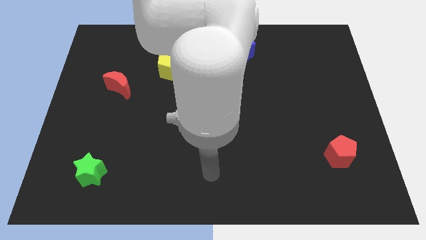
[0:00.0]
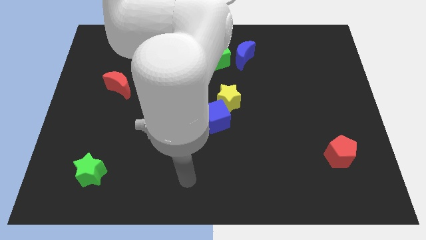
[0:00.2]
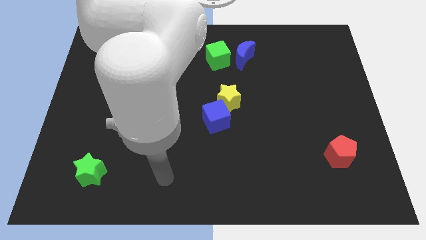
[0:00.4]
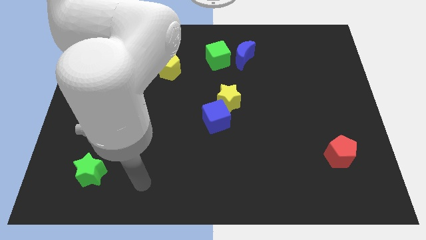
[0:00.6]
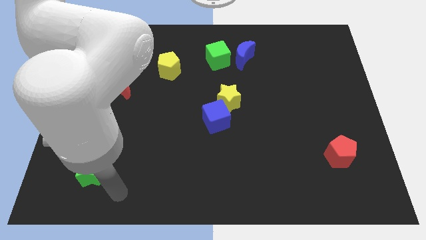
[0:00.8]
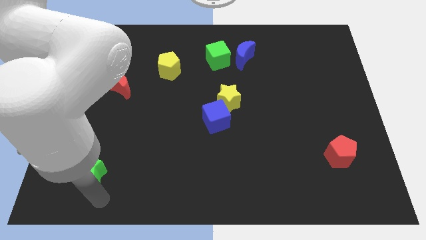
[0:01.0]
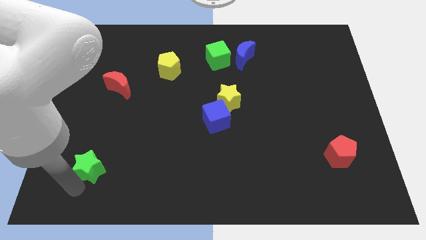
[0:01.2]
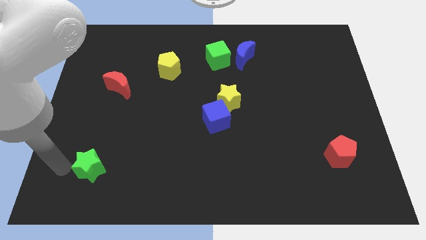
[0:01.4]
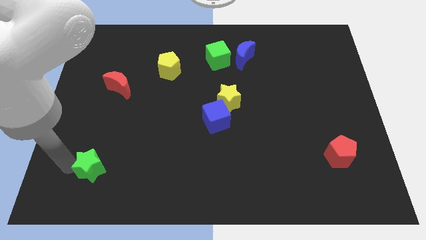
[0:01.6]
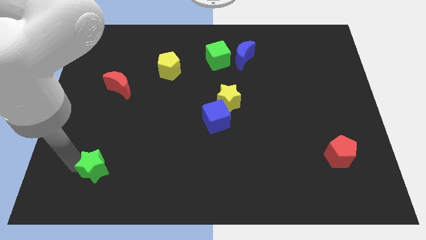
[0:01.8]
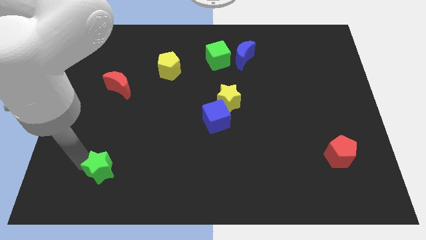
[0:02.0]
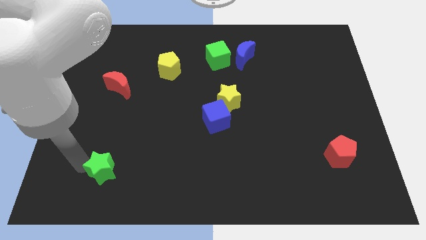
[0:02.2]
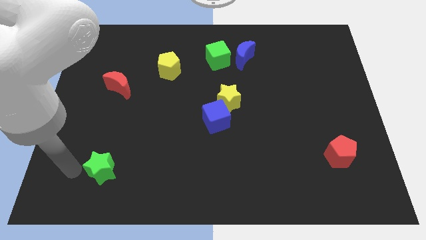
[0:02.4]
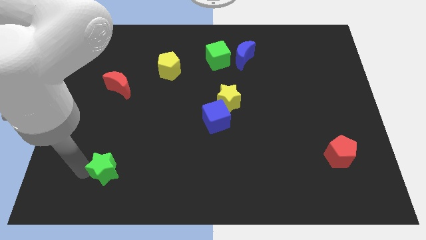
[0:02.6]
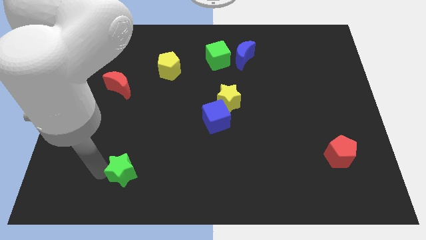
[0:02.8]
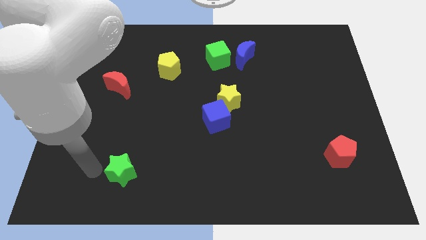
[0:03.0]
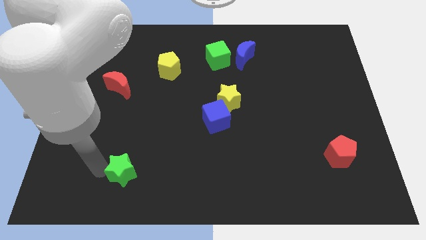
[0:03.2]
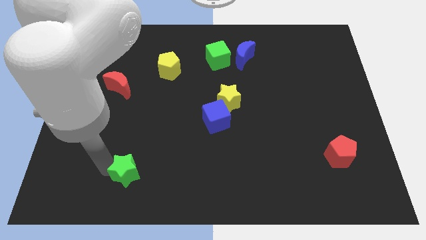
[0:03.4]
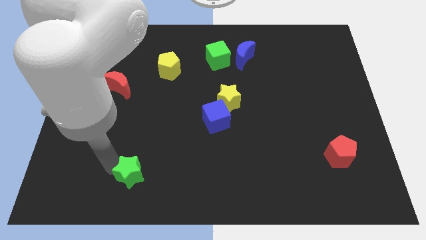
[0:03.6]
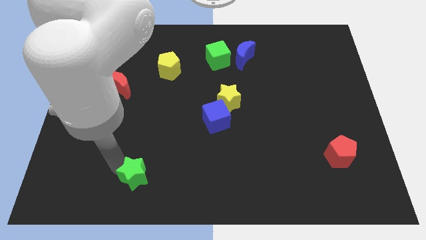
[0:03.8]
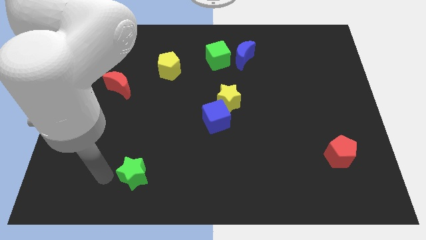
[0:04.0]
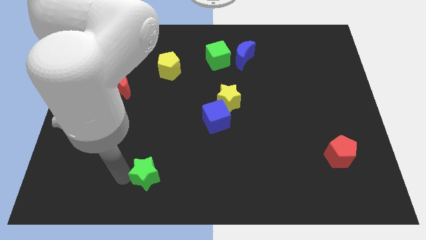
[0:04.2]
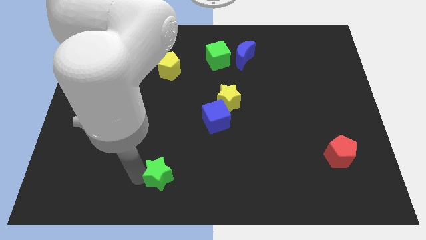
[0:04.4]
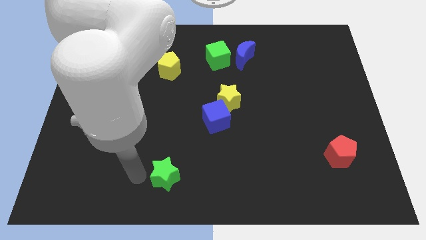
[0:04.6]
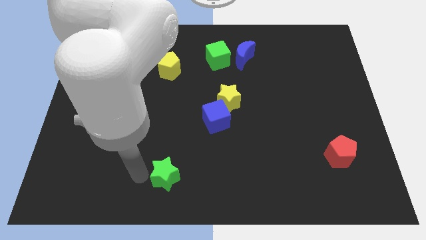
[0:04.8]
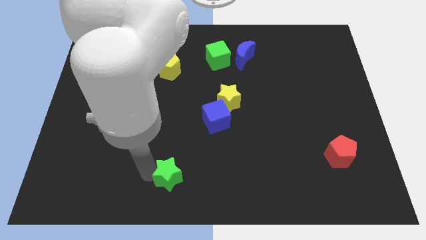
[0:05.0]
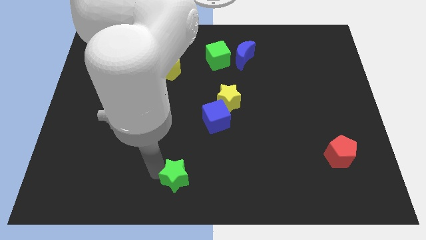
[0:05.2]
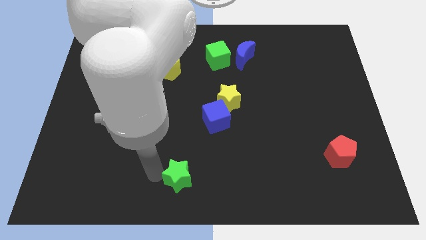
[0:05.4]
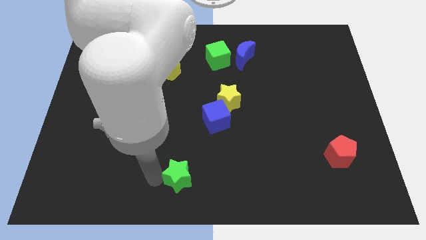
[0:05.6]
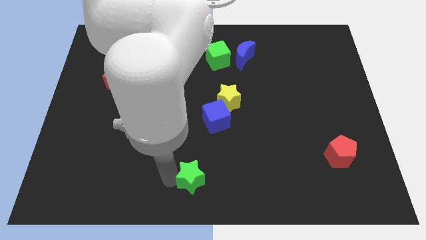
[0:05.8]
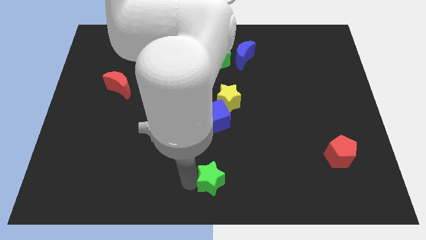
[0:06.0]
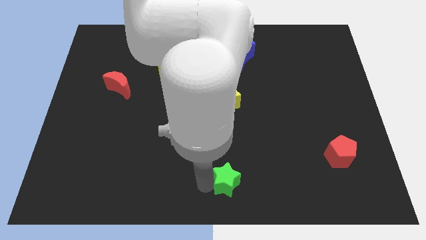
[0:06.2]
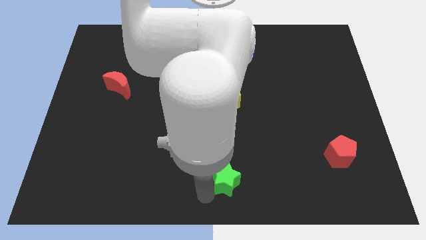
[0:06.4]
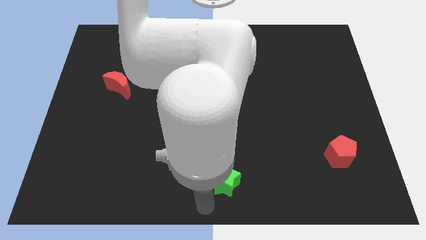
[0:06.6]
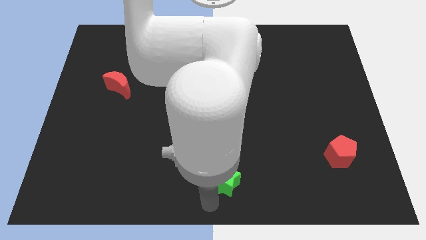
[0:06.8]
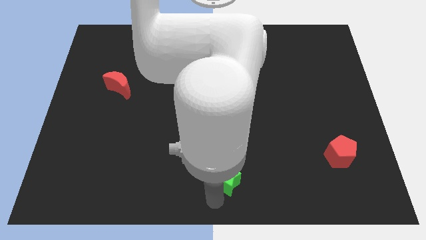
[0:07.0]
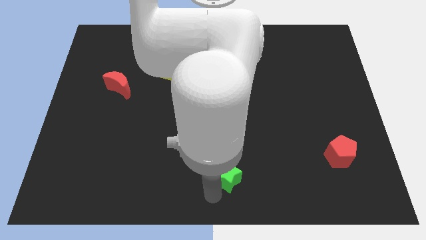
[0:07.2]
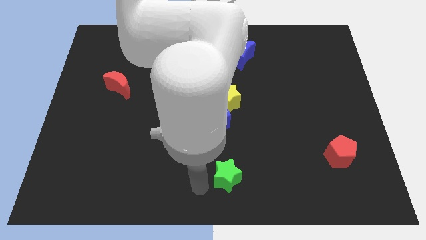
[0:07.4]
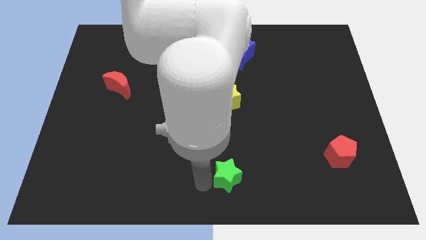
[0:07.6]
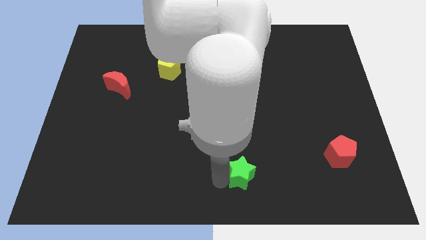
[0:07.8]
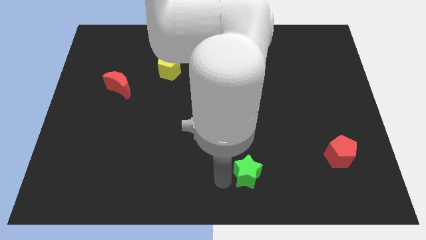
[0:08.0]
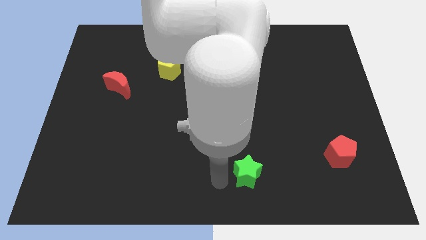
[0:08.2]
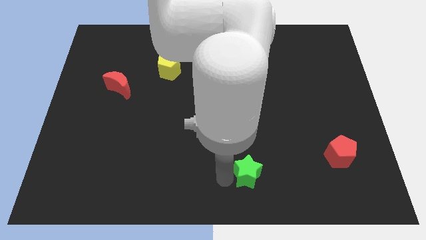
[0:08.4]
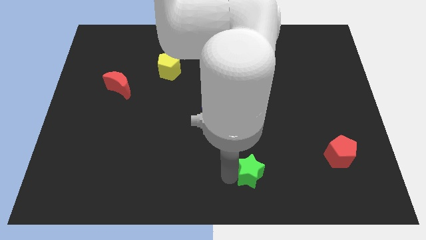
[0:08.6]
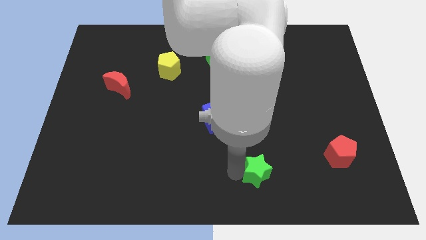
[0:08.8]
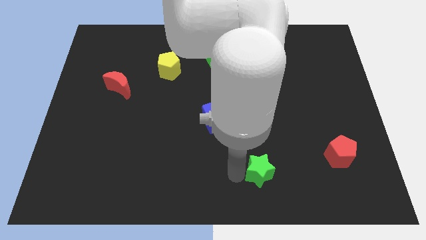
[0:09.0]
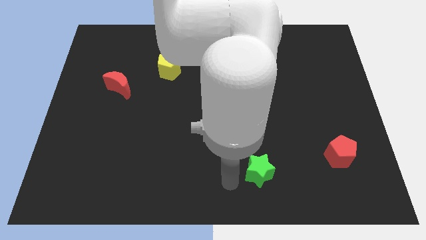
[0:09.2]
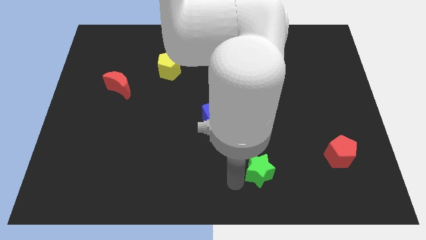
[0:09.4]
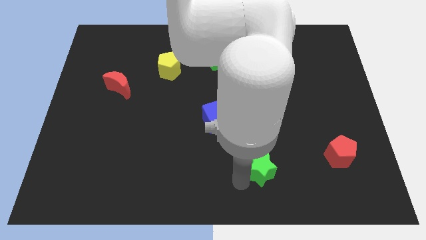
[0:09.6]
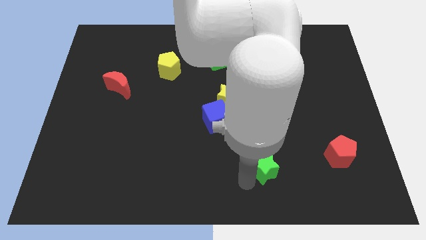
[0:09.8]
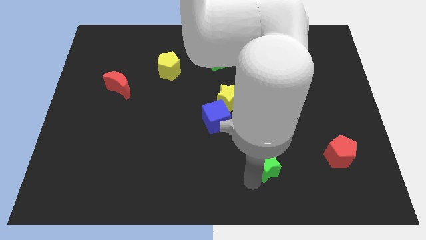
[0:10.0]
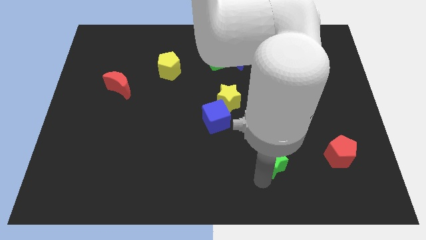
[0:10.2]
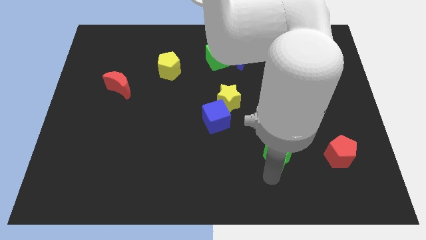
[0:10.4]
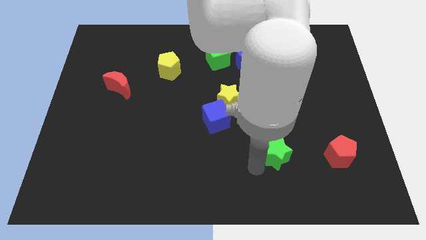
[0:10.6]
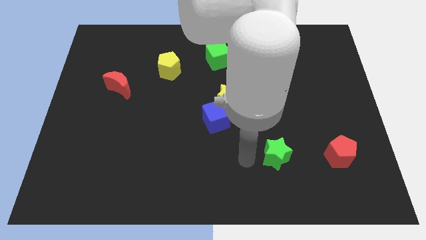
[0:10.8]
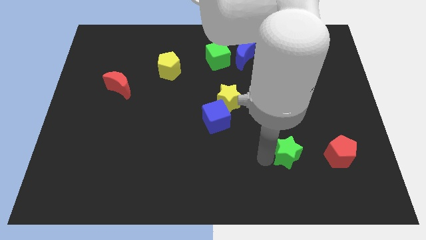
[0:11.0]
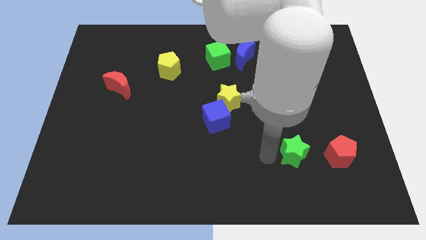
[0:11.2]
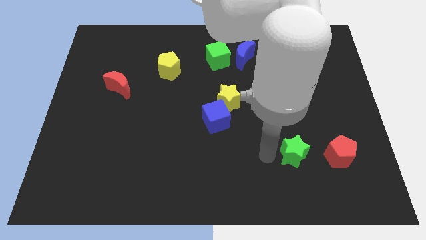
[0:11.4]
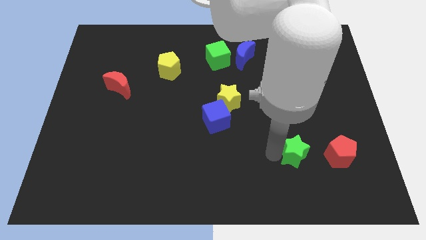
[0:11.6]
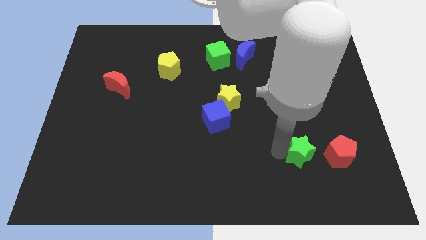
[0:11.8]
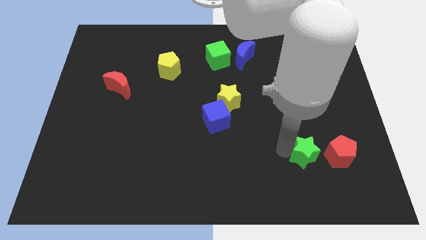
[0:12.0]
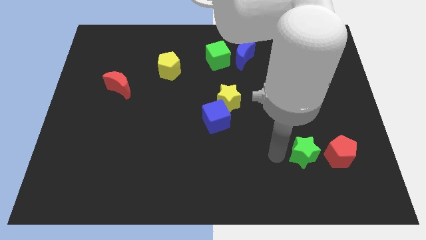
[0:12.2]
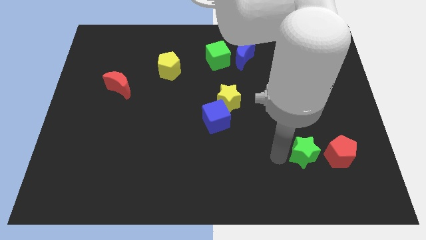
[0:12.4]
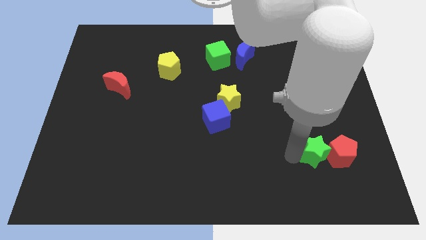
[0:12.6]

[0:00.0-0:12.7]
move the green star to the red pentagon

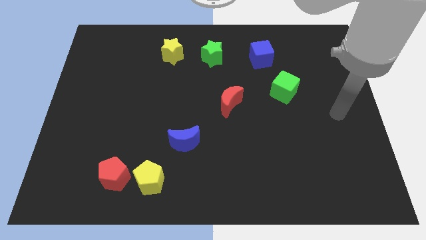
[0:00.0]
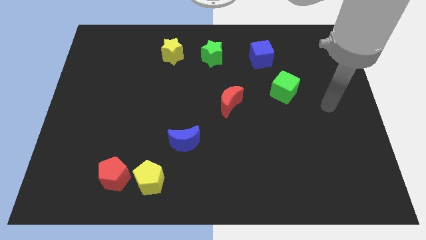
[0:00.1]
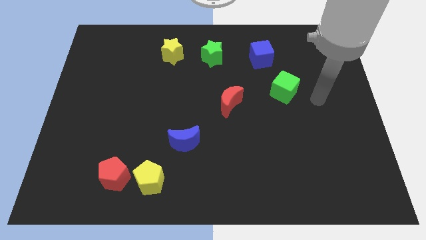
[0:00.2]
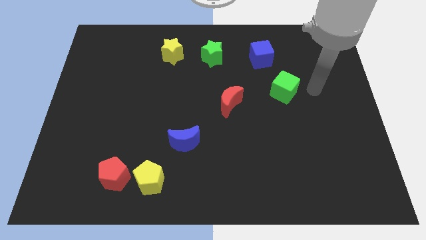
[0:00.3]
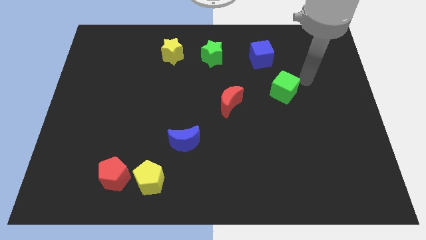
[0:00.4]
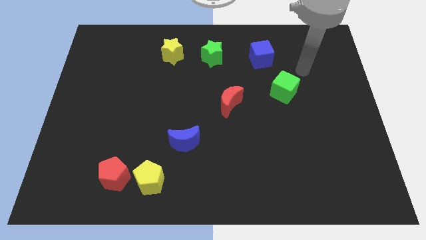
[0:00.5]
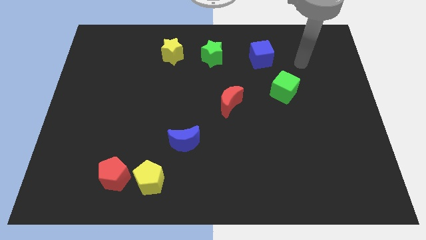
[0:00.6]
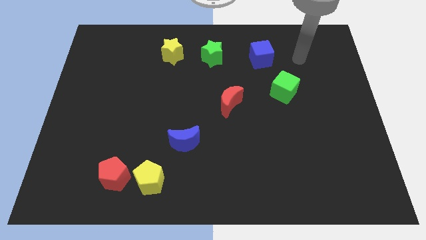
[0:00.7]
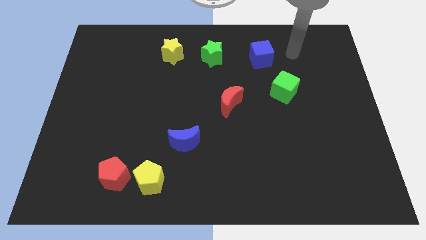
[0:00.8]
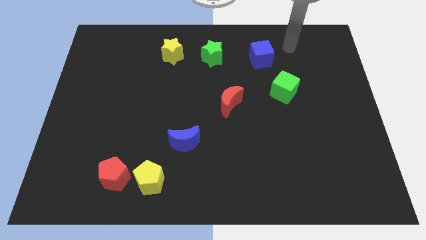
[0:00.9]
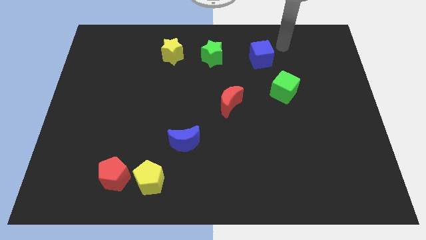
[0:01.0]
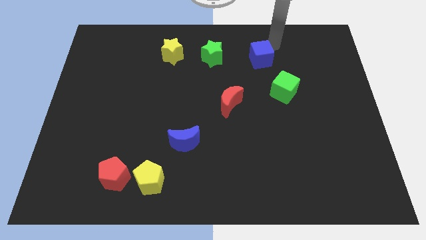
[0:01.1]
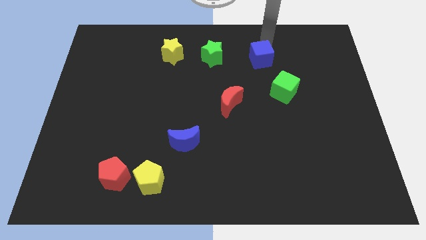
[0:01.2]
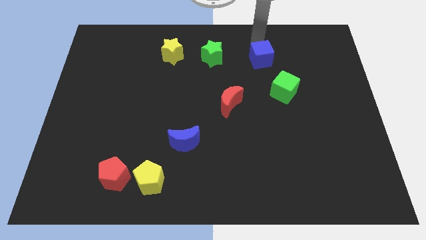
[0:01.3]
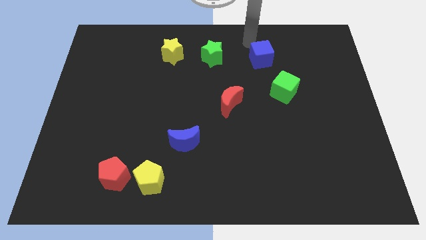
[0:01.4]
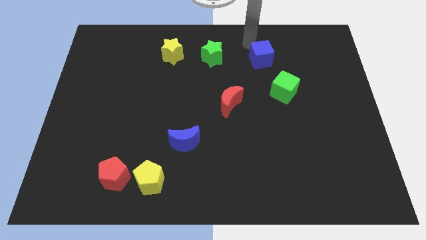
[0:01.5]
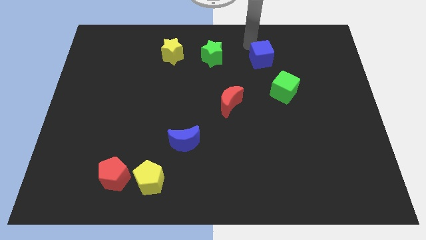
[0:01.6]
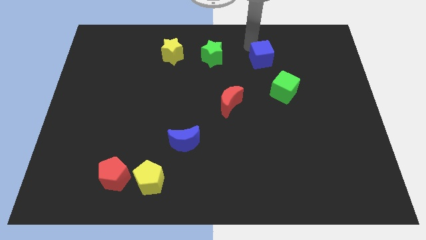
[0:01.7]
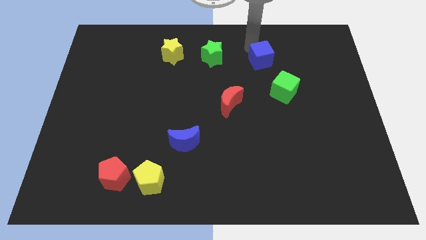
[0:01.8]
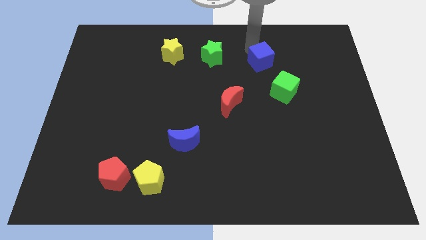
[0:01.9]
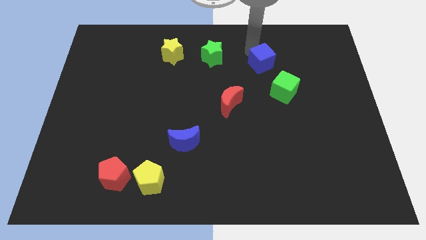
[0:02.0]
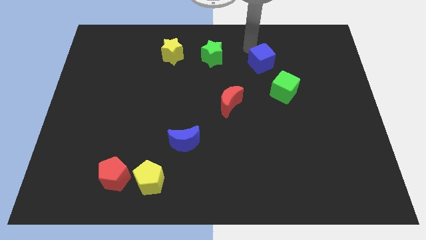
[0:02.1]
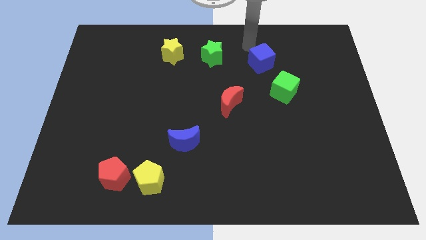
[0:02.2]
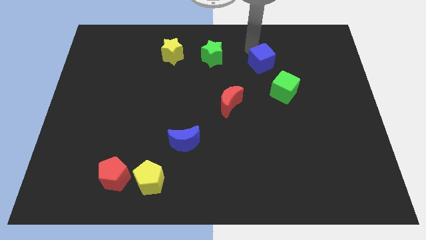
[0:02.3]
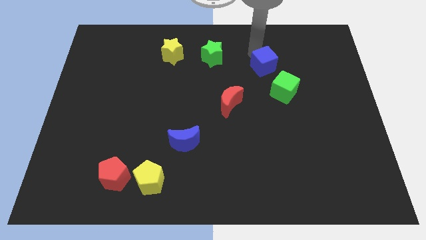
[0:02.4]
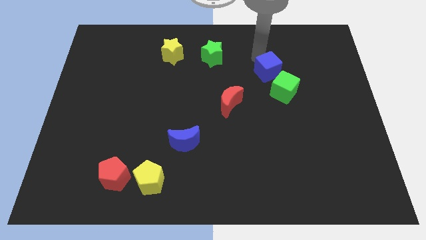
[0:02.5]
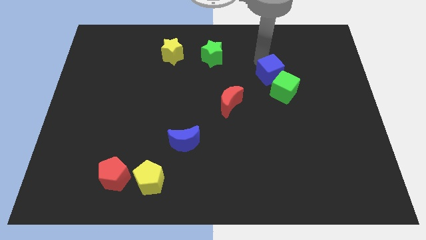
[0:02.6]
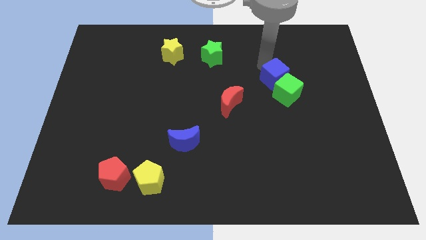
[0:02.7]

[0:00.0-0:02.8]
move the blue cube close to the green cube
